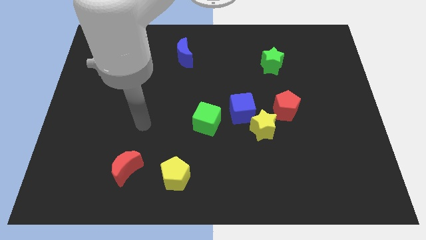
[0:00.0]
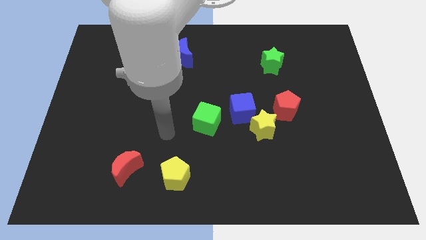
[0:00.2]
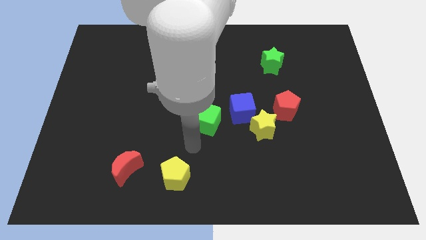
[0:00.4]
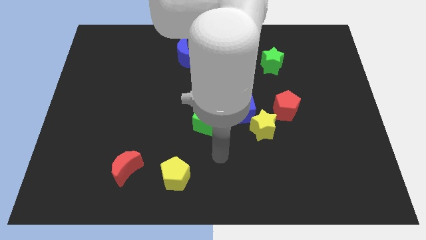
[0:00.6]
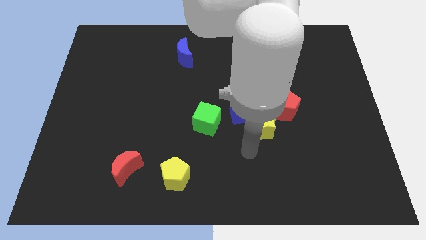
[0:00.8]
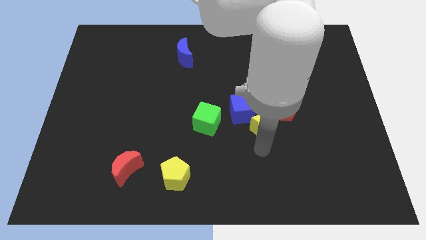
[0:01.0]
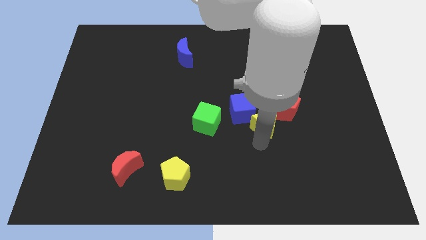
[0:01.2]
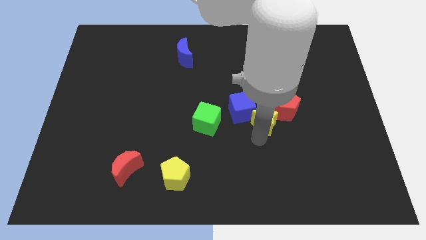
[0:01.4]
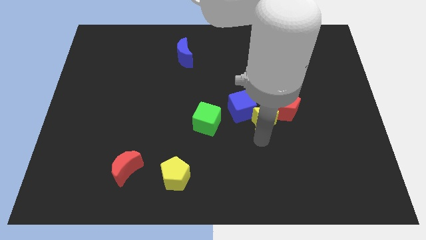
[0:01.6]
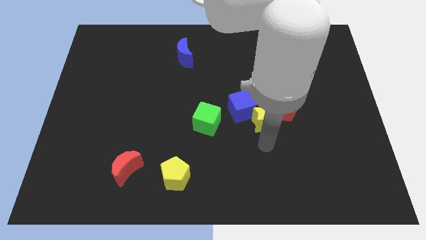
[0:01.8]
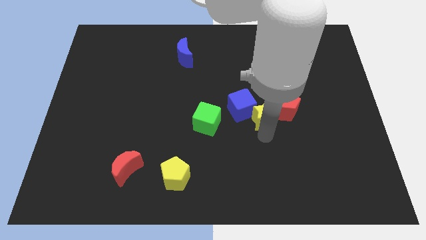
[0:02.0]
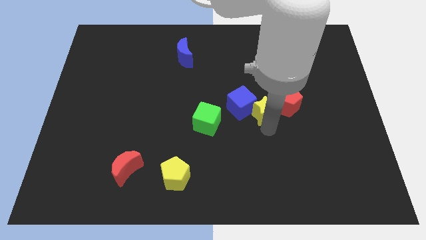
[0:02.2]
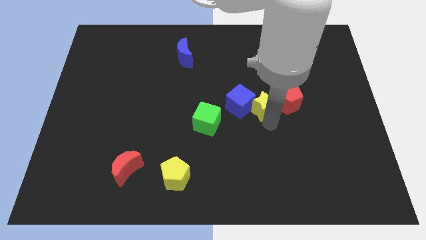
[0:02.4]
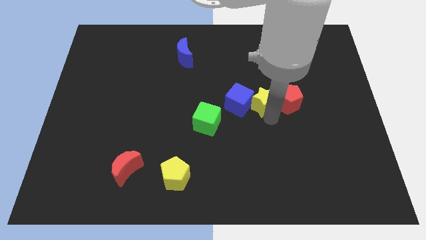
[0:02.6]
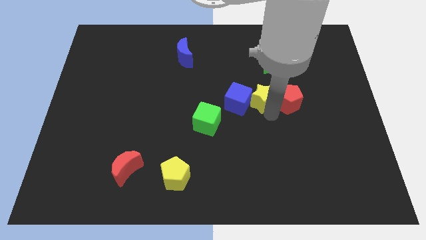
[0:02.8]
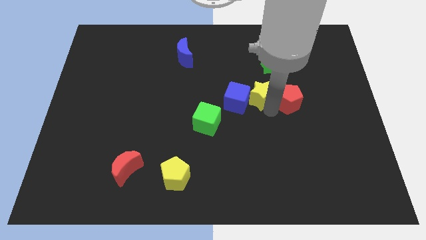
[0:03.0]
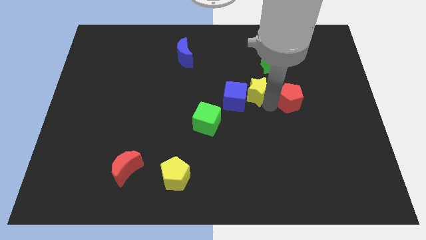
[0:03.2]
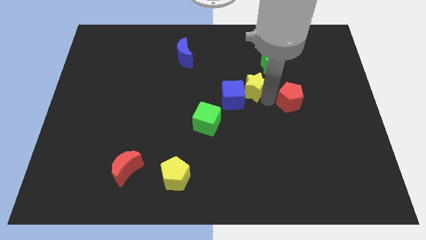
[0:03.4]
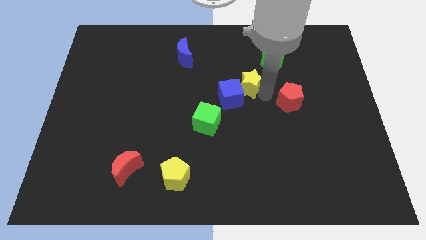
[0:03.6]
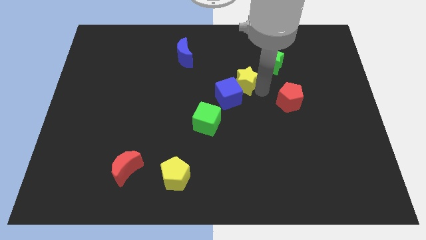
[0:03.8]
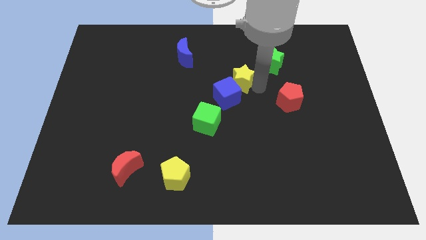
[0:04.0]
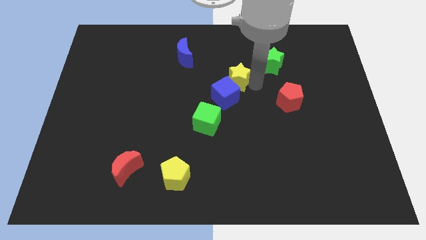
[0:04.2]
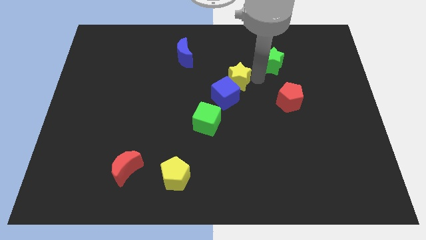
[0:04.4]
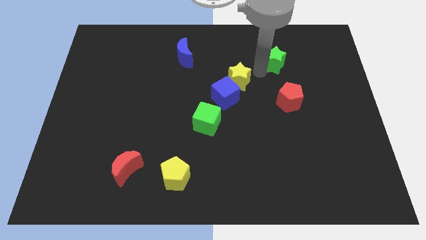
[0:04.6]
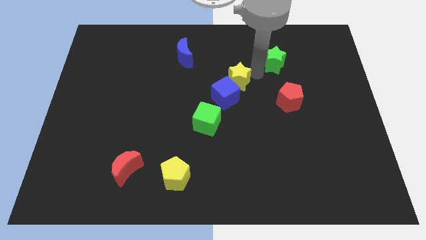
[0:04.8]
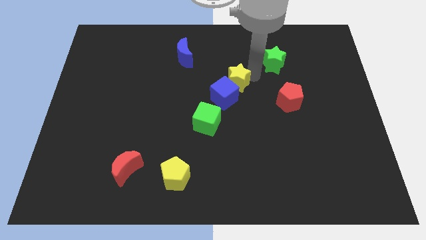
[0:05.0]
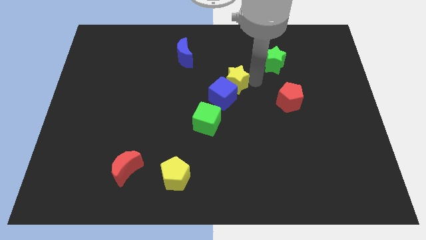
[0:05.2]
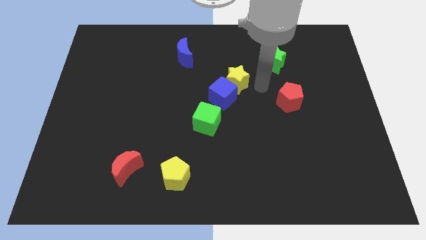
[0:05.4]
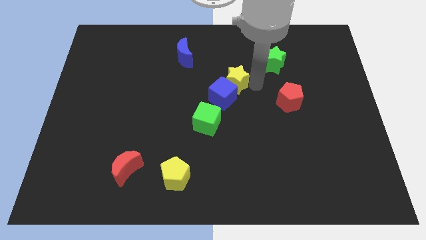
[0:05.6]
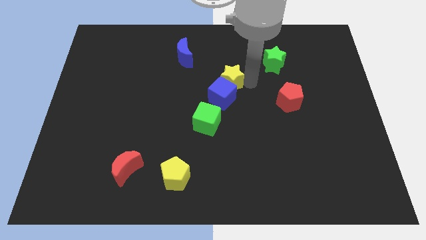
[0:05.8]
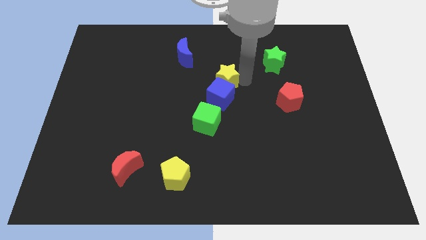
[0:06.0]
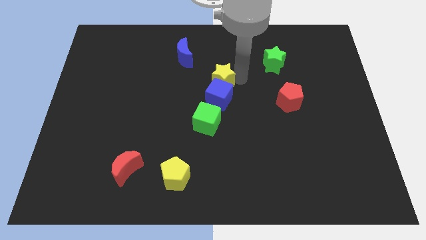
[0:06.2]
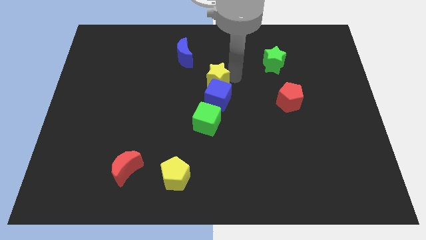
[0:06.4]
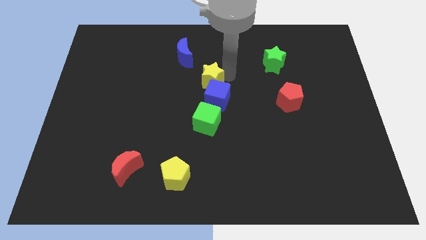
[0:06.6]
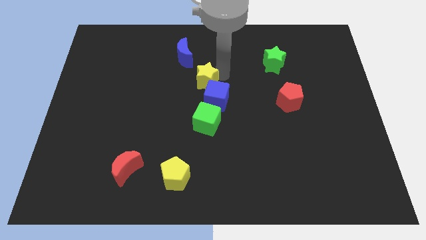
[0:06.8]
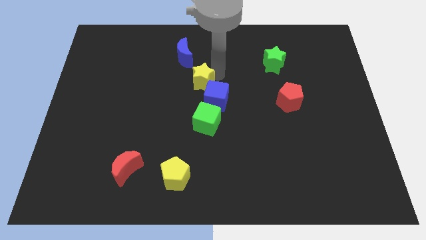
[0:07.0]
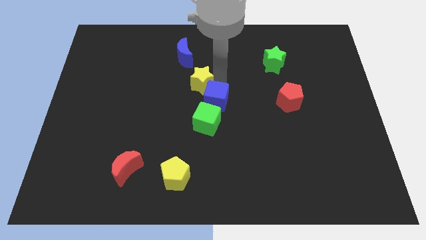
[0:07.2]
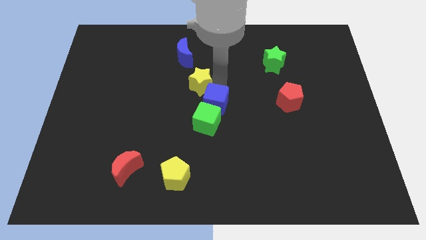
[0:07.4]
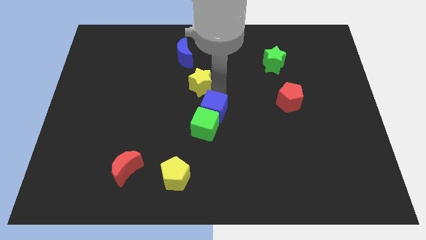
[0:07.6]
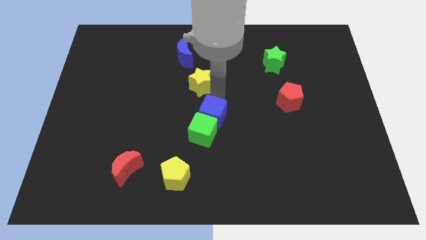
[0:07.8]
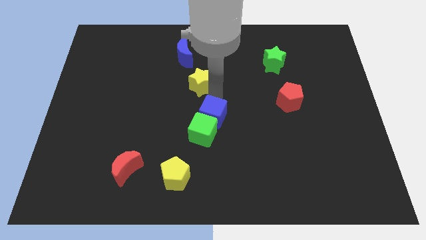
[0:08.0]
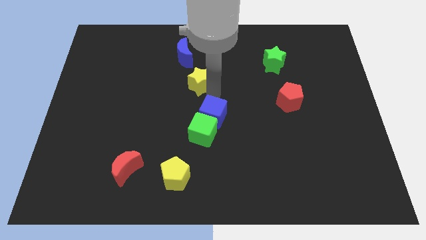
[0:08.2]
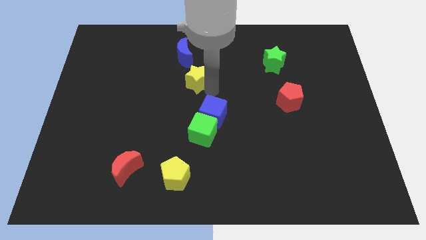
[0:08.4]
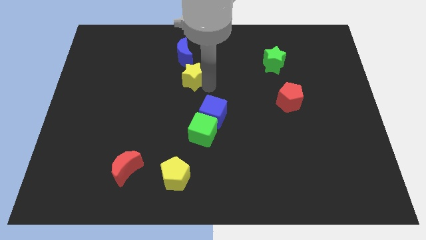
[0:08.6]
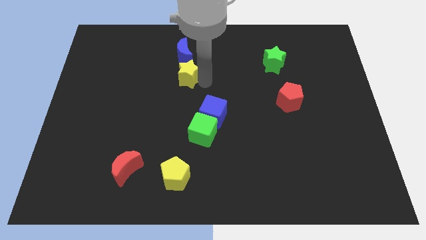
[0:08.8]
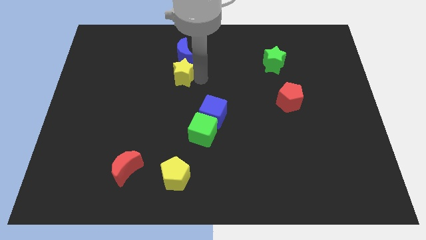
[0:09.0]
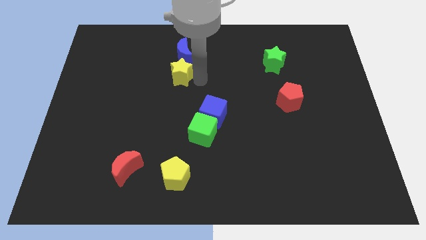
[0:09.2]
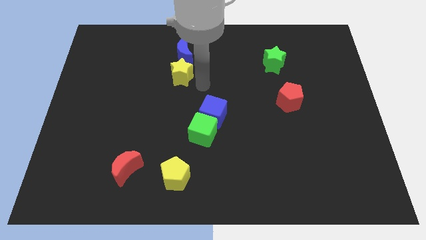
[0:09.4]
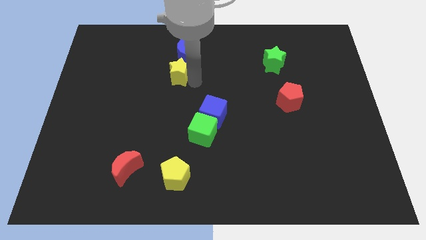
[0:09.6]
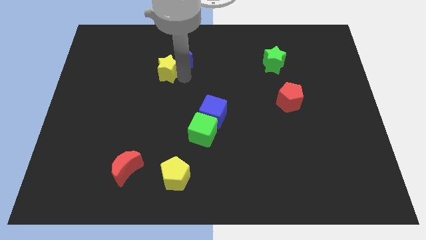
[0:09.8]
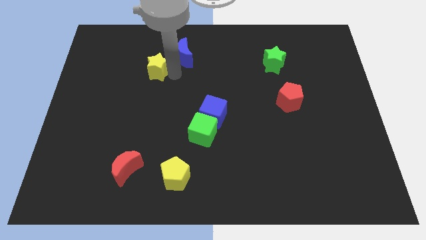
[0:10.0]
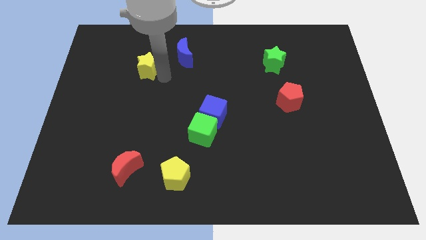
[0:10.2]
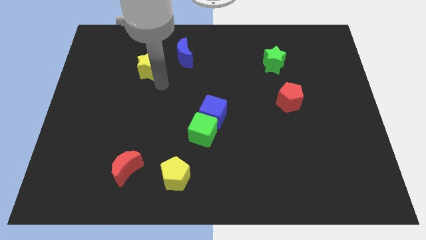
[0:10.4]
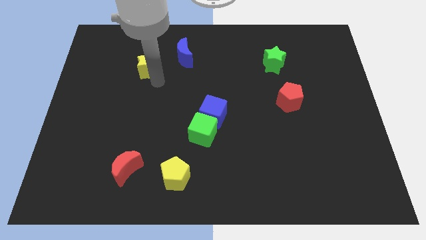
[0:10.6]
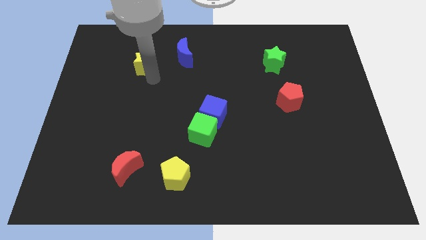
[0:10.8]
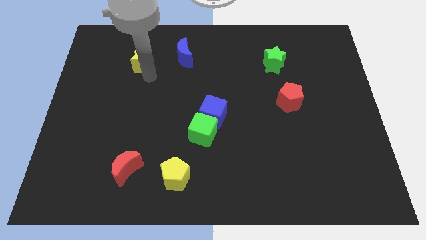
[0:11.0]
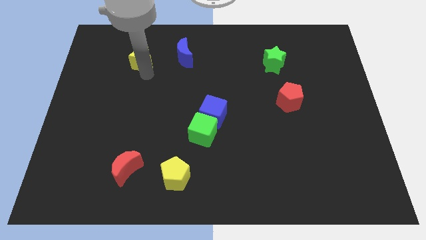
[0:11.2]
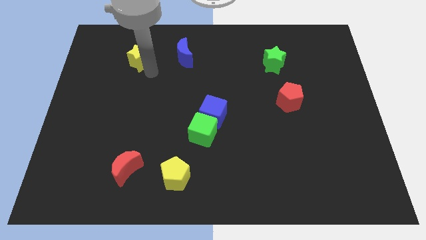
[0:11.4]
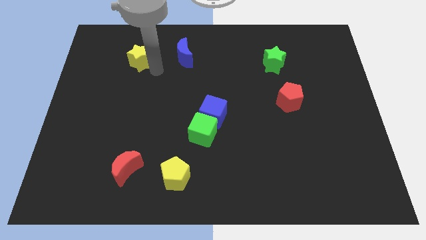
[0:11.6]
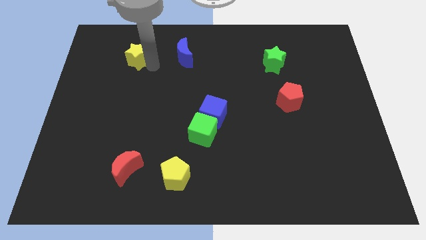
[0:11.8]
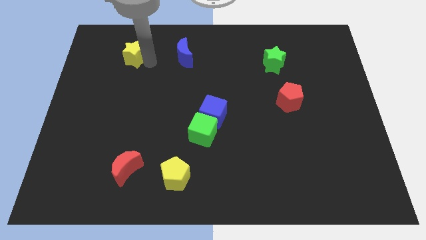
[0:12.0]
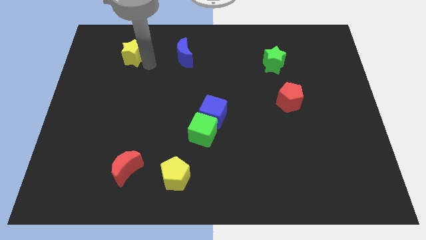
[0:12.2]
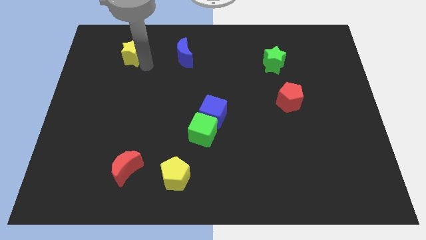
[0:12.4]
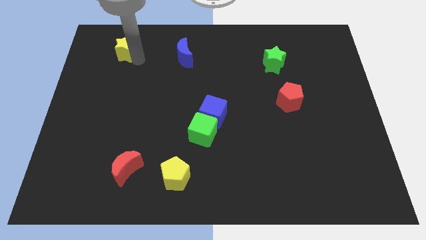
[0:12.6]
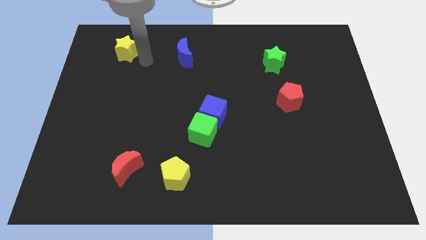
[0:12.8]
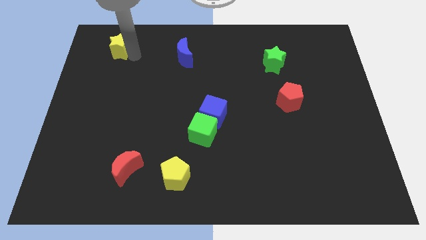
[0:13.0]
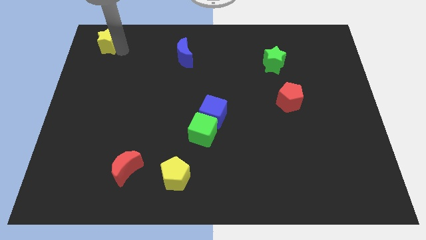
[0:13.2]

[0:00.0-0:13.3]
push the yellow star to the top left
